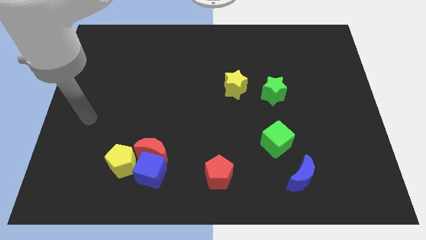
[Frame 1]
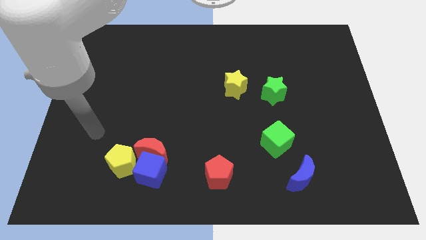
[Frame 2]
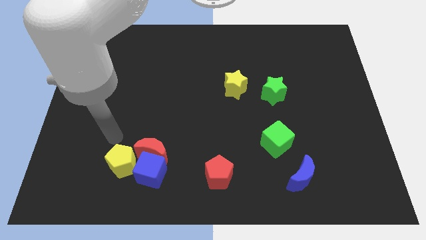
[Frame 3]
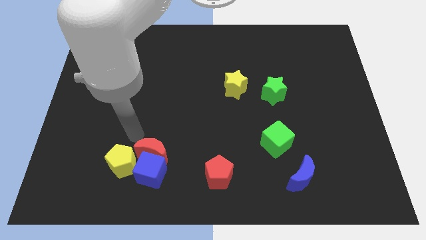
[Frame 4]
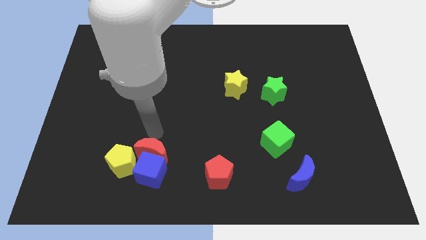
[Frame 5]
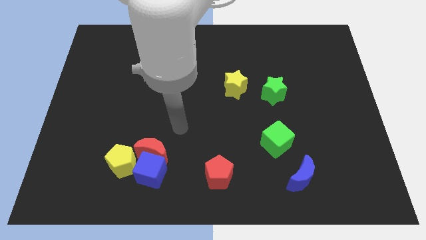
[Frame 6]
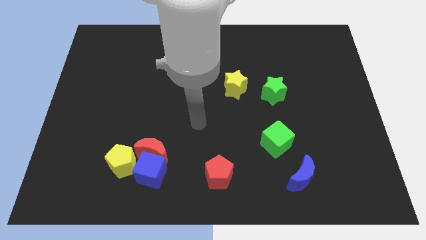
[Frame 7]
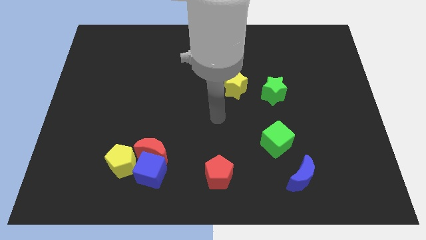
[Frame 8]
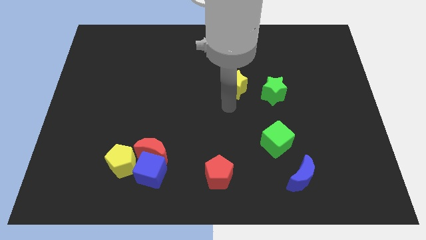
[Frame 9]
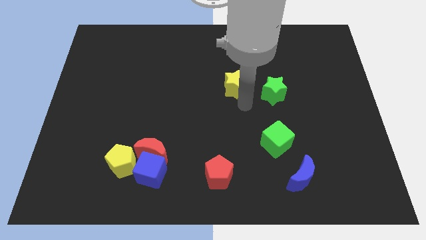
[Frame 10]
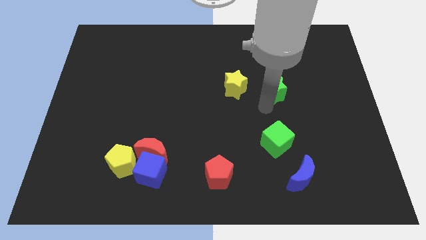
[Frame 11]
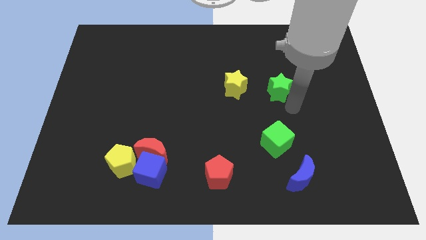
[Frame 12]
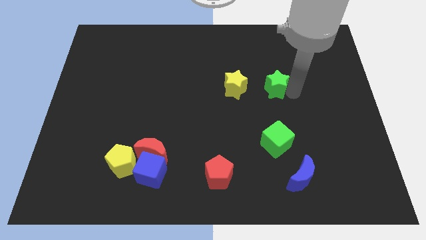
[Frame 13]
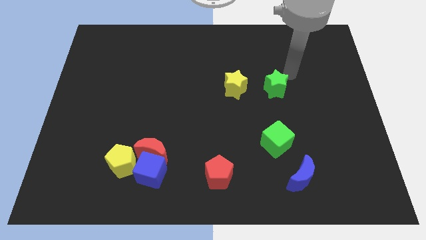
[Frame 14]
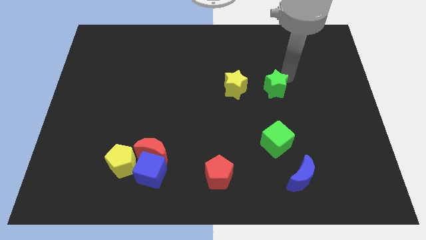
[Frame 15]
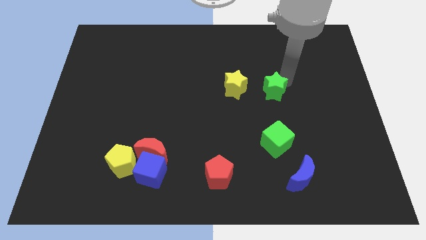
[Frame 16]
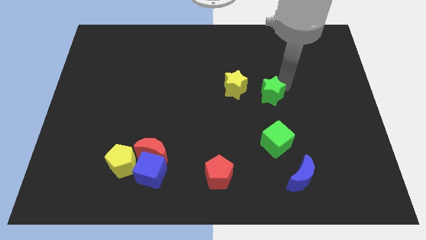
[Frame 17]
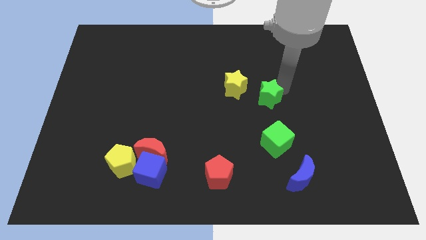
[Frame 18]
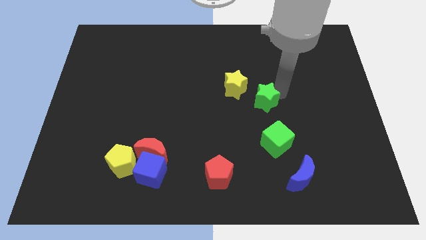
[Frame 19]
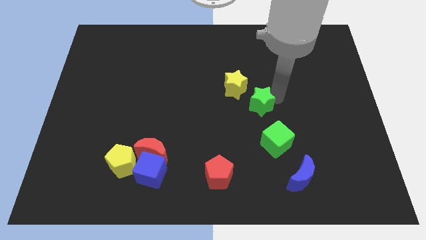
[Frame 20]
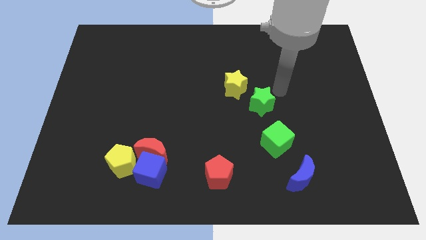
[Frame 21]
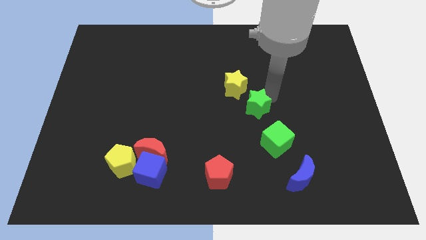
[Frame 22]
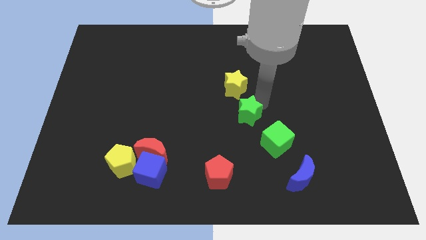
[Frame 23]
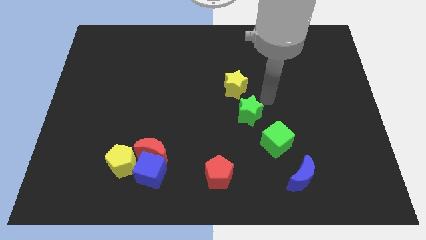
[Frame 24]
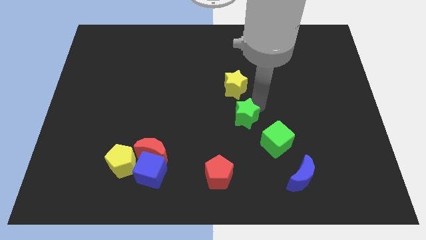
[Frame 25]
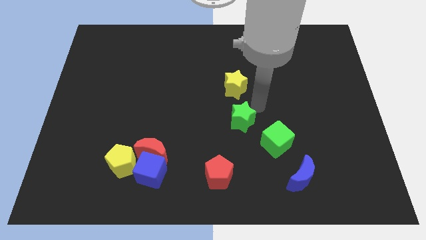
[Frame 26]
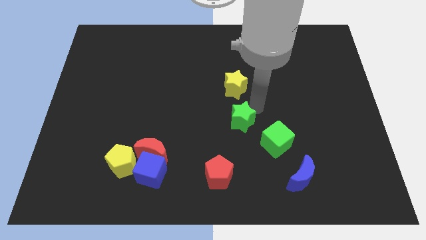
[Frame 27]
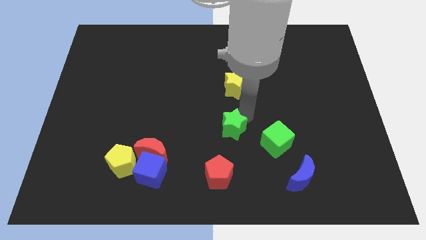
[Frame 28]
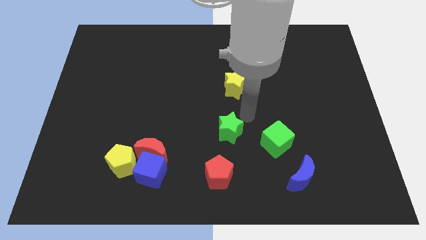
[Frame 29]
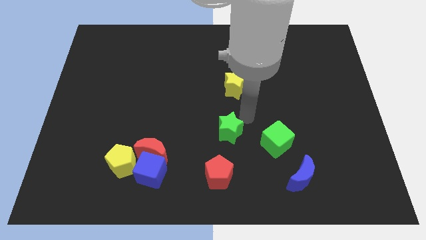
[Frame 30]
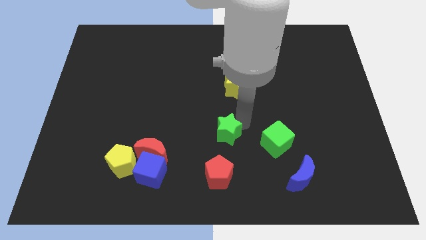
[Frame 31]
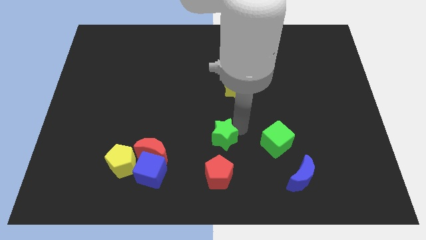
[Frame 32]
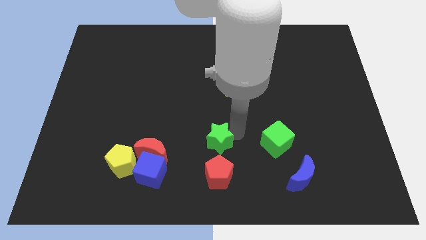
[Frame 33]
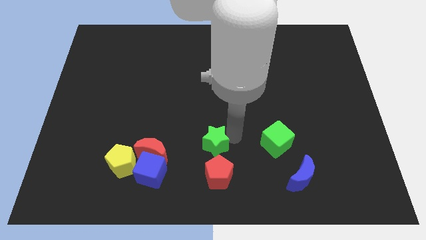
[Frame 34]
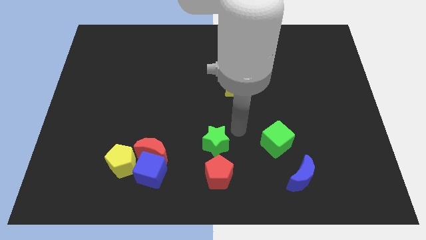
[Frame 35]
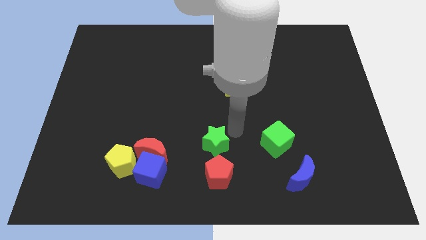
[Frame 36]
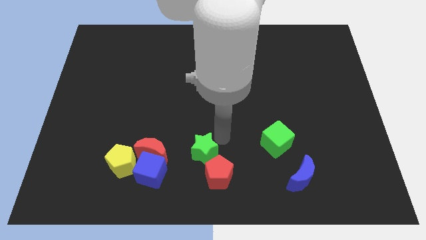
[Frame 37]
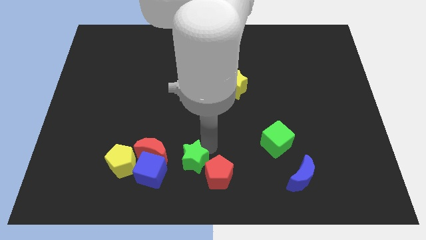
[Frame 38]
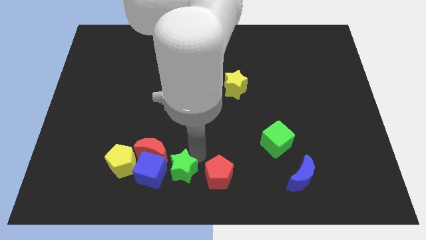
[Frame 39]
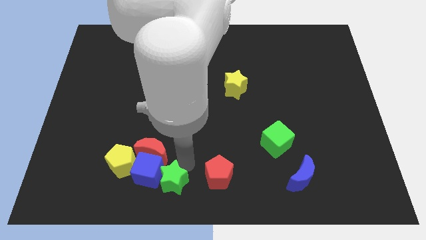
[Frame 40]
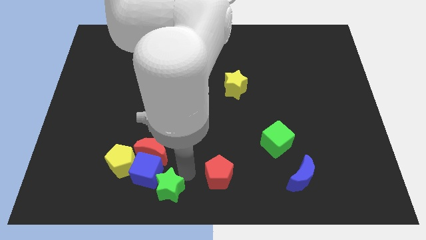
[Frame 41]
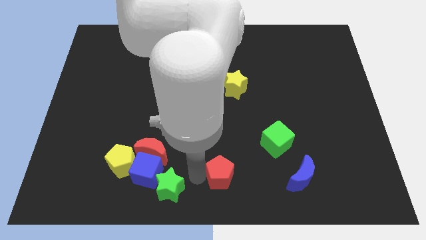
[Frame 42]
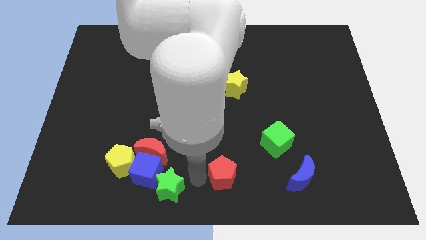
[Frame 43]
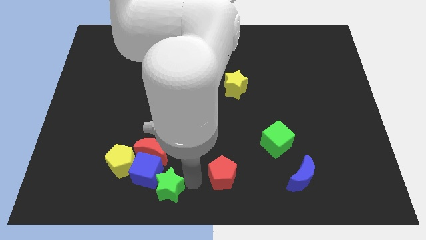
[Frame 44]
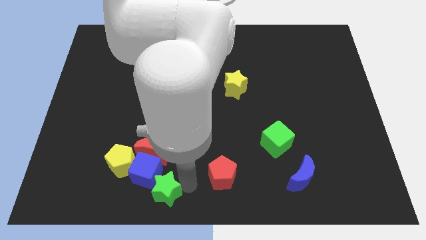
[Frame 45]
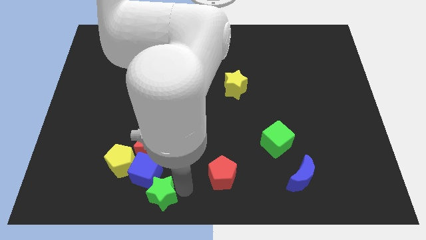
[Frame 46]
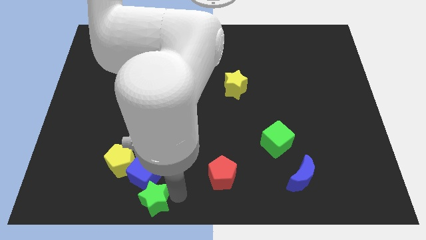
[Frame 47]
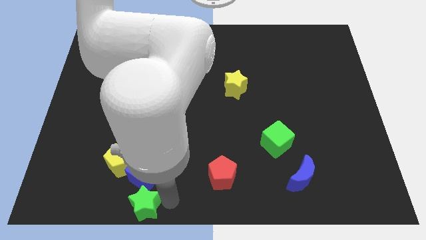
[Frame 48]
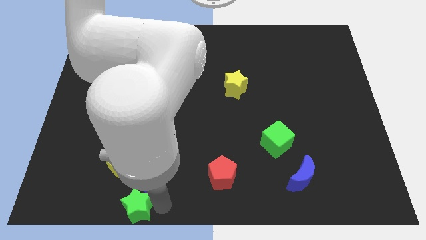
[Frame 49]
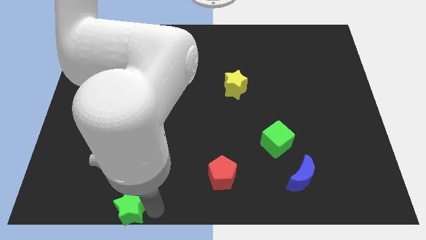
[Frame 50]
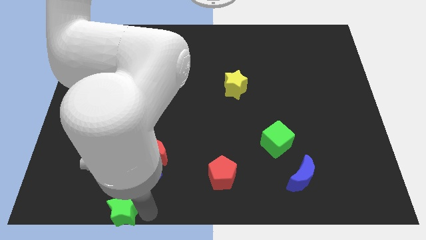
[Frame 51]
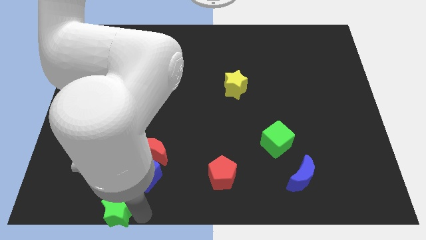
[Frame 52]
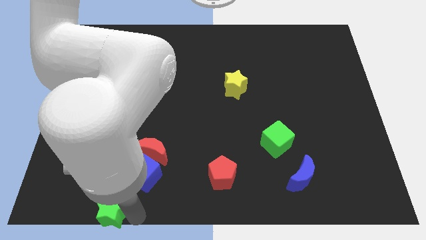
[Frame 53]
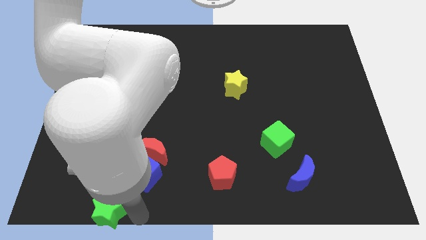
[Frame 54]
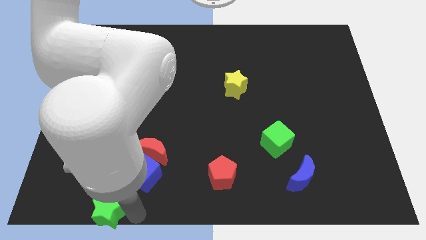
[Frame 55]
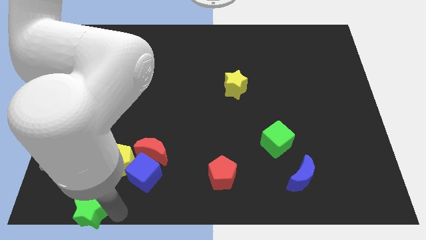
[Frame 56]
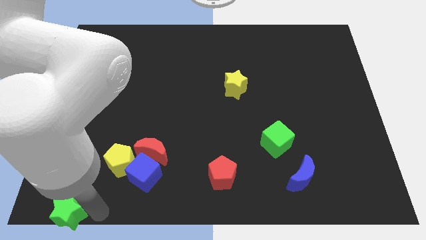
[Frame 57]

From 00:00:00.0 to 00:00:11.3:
put the green star to the bottom left corner
